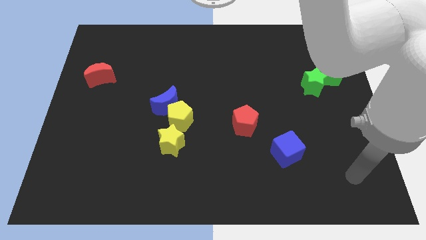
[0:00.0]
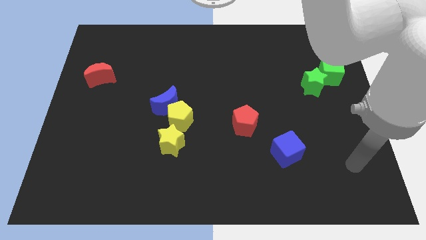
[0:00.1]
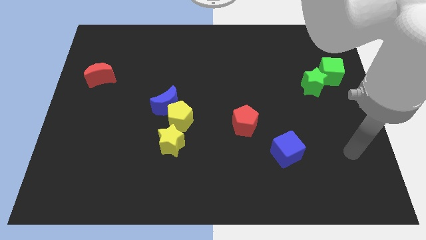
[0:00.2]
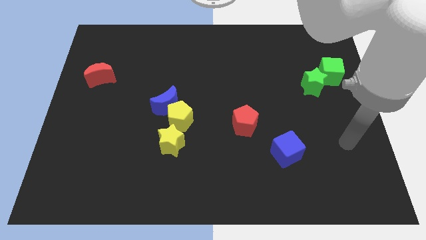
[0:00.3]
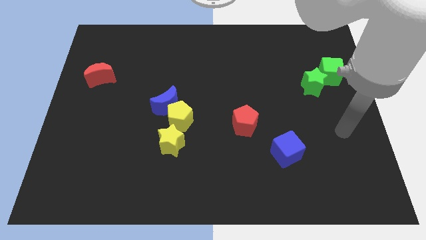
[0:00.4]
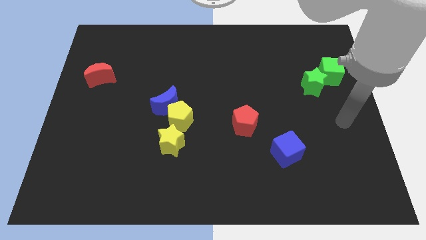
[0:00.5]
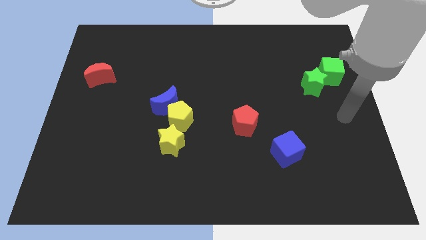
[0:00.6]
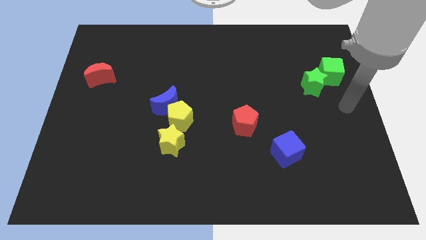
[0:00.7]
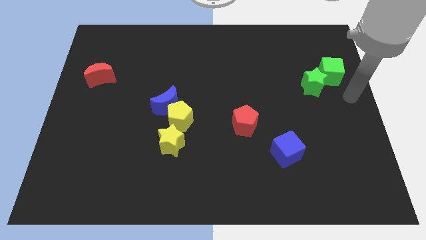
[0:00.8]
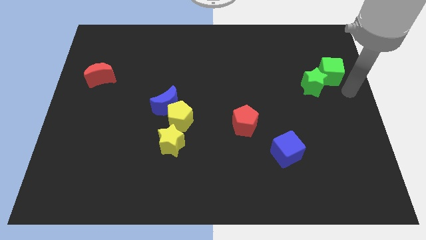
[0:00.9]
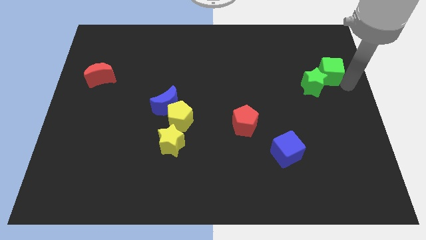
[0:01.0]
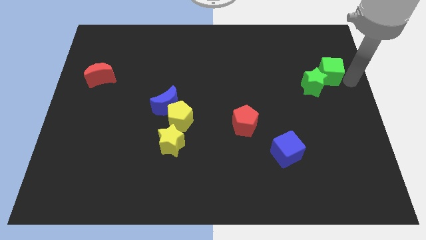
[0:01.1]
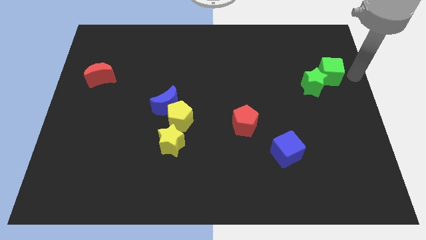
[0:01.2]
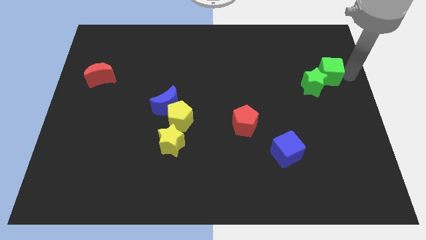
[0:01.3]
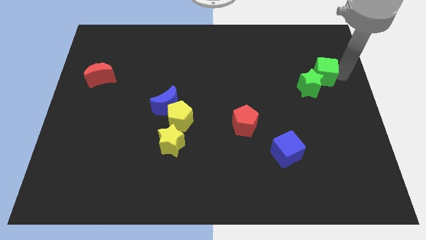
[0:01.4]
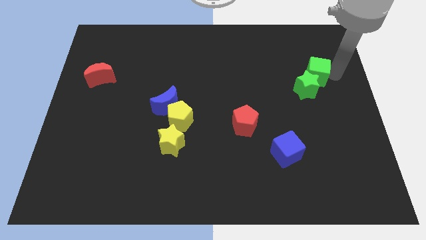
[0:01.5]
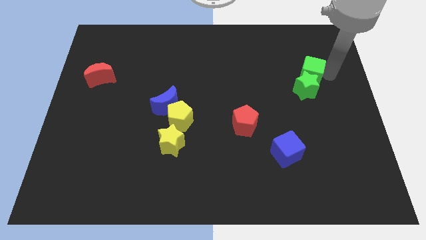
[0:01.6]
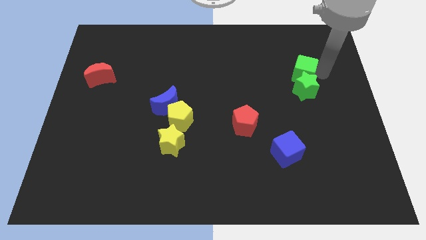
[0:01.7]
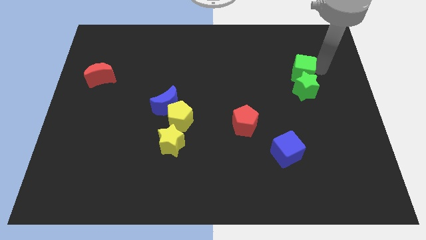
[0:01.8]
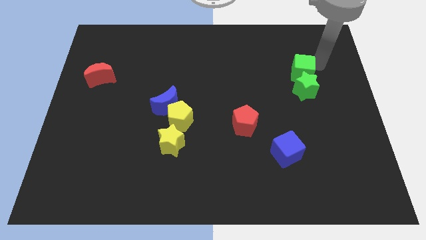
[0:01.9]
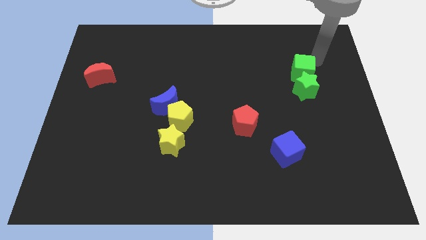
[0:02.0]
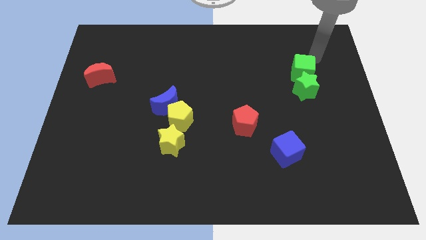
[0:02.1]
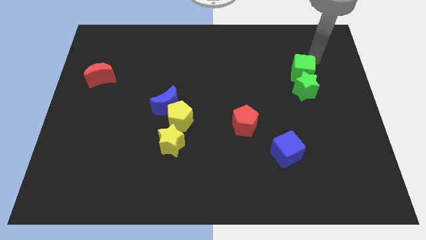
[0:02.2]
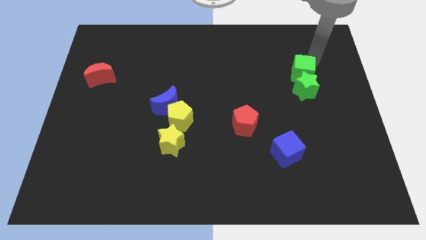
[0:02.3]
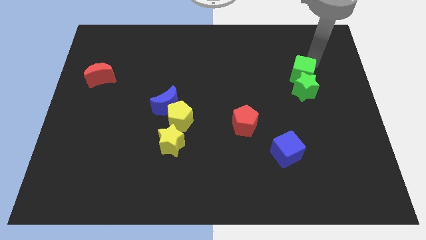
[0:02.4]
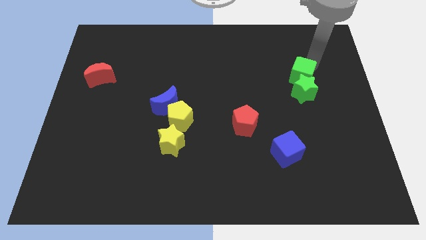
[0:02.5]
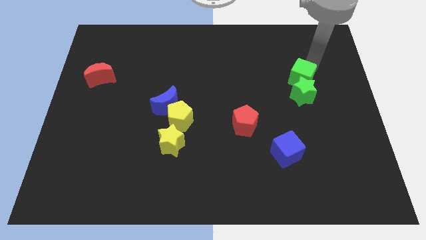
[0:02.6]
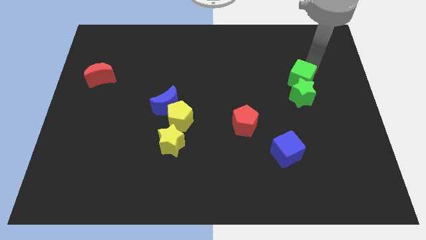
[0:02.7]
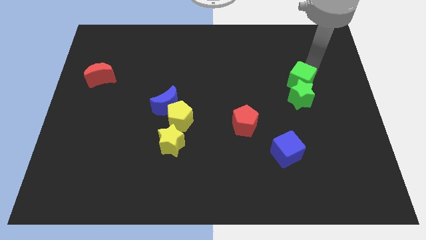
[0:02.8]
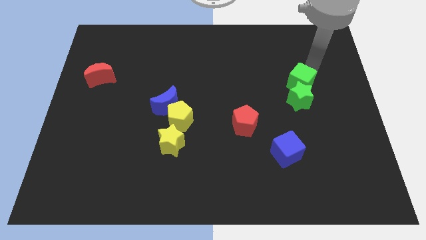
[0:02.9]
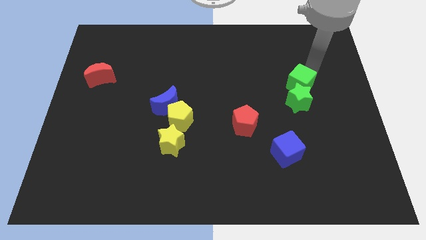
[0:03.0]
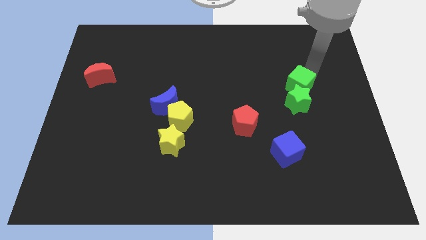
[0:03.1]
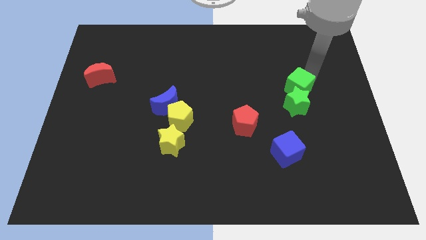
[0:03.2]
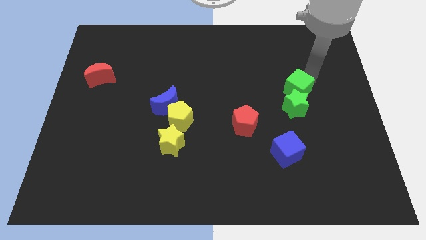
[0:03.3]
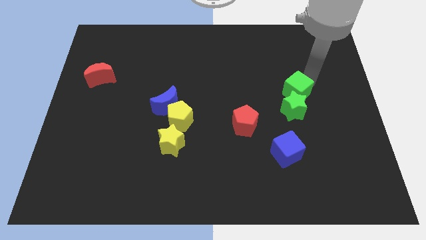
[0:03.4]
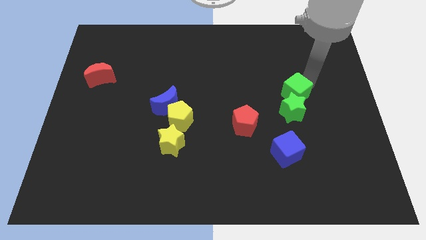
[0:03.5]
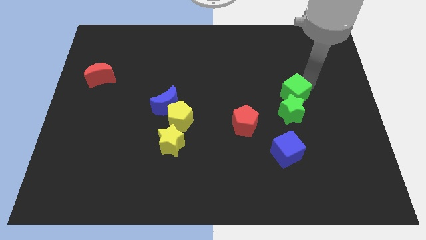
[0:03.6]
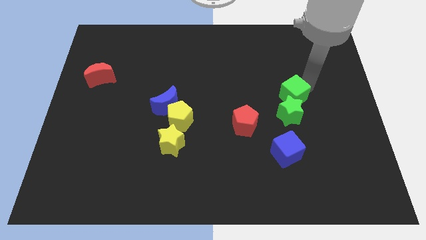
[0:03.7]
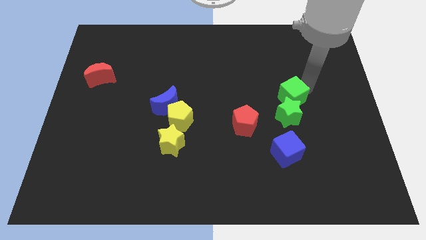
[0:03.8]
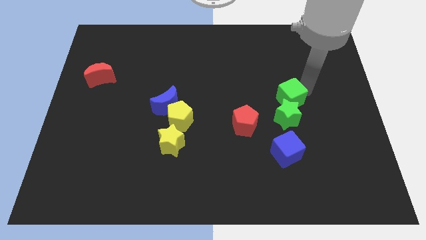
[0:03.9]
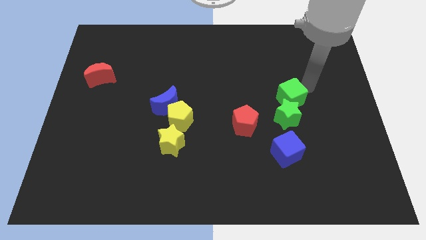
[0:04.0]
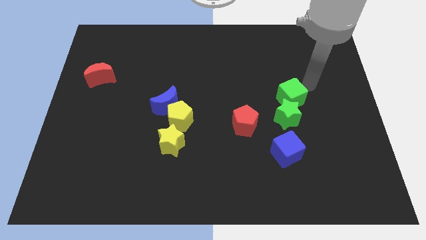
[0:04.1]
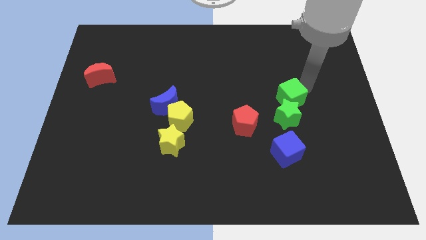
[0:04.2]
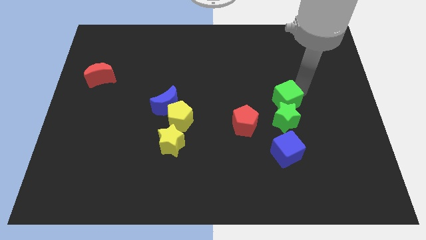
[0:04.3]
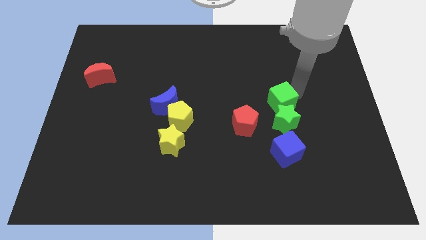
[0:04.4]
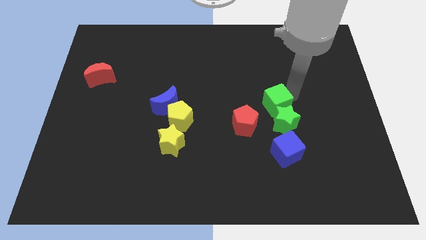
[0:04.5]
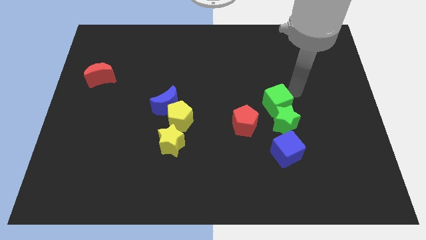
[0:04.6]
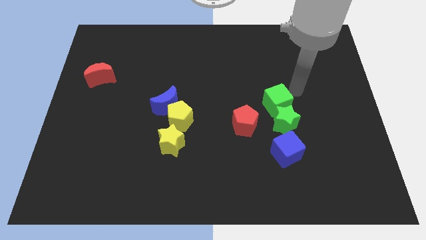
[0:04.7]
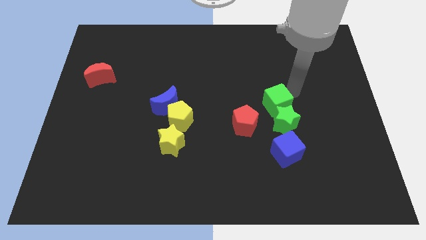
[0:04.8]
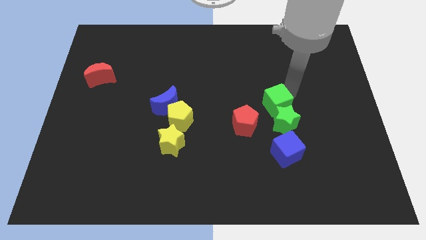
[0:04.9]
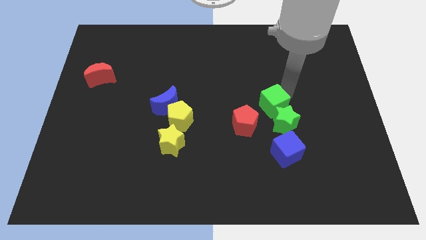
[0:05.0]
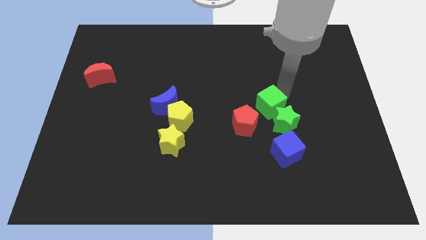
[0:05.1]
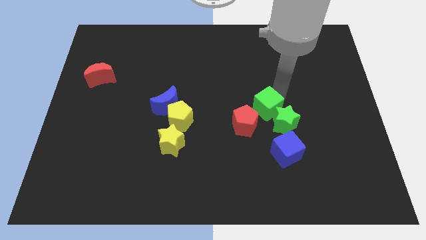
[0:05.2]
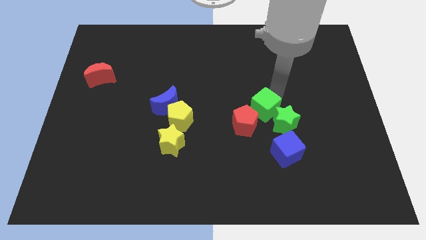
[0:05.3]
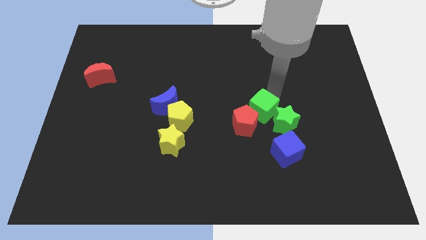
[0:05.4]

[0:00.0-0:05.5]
move the green cube towards the red pentagon

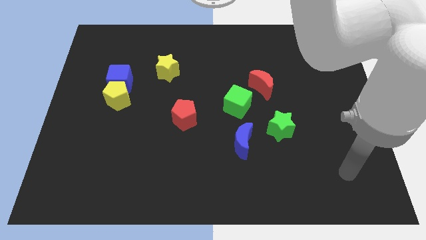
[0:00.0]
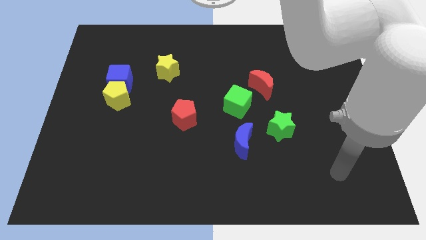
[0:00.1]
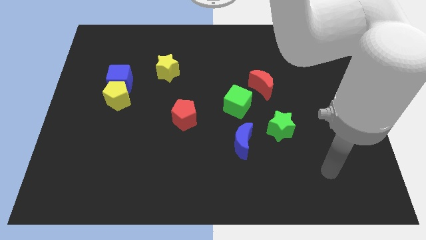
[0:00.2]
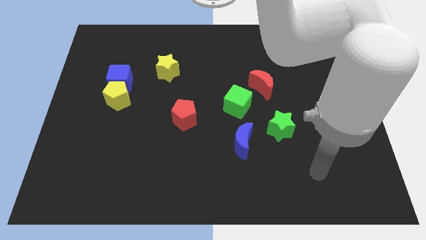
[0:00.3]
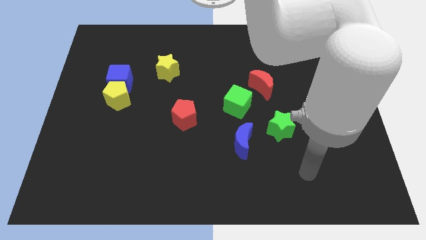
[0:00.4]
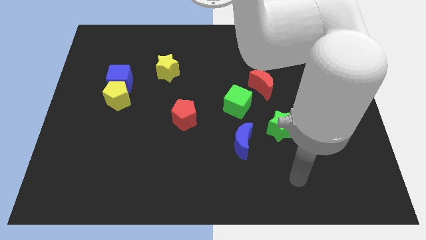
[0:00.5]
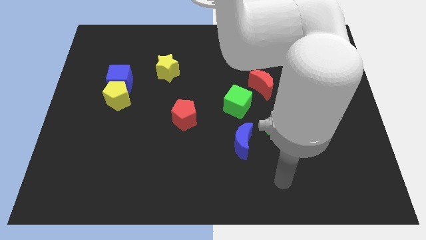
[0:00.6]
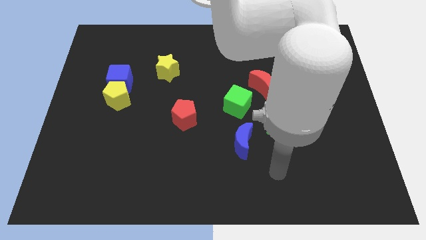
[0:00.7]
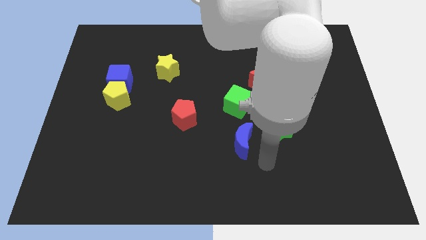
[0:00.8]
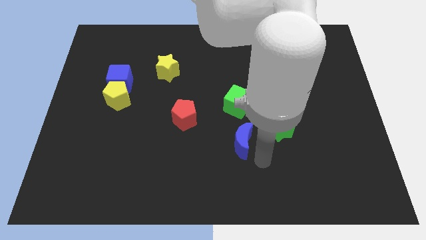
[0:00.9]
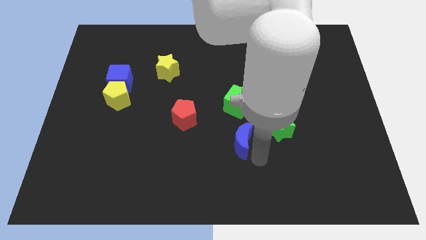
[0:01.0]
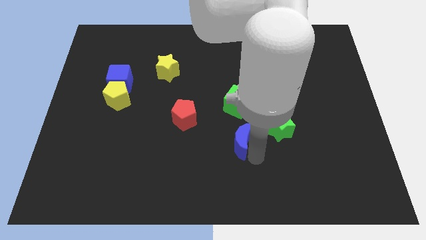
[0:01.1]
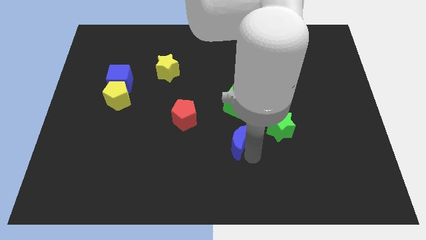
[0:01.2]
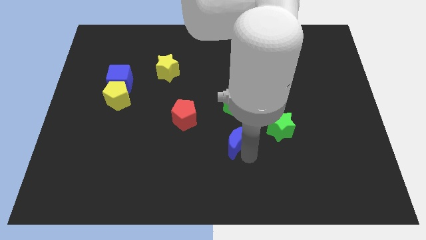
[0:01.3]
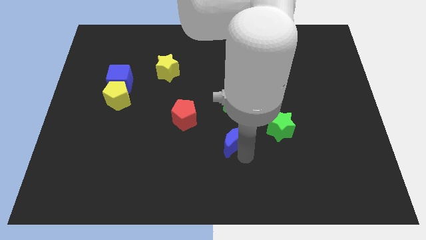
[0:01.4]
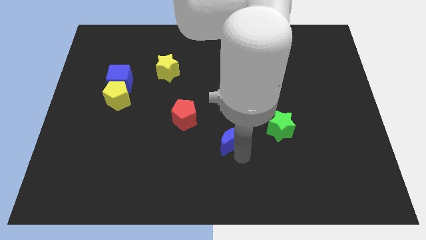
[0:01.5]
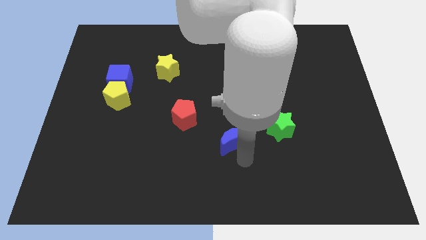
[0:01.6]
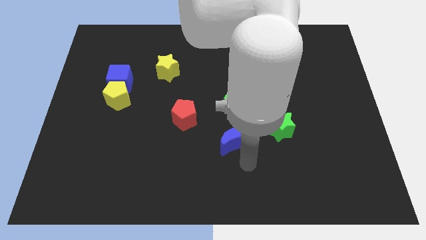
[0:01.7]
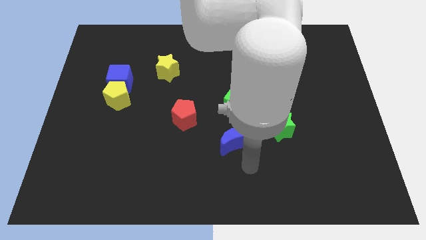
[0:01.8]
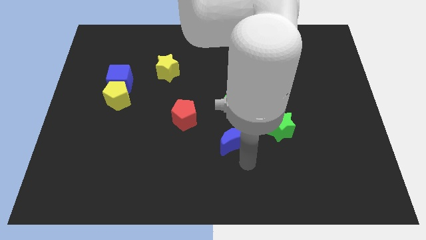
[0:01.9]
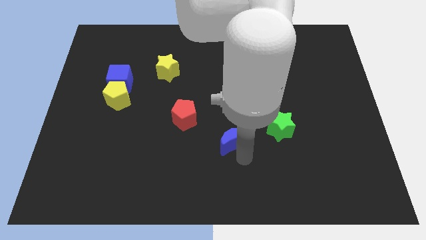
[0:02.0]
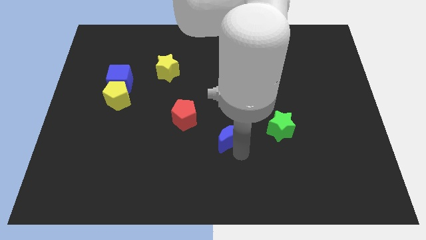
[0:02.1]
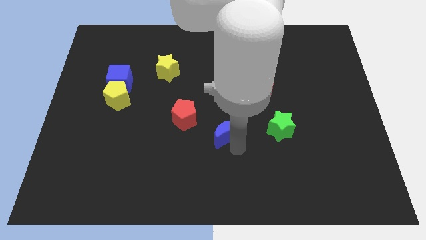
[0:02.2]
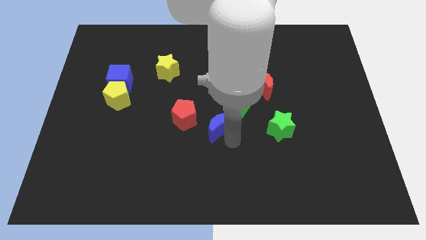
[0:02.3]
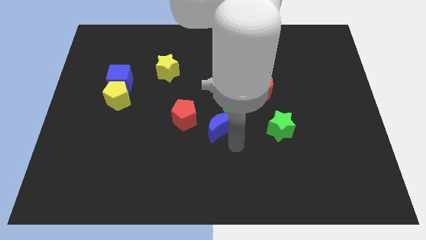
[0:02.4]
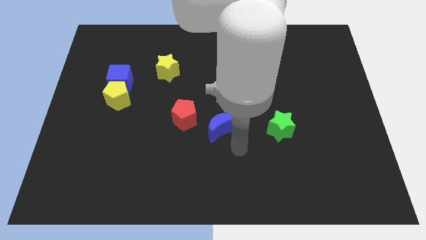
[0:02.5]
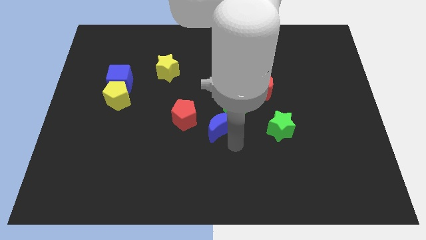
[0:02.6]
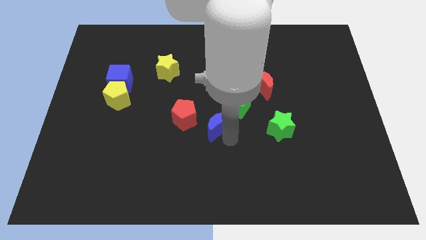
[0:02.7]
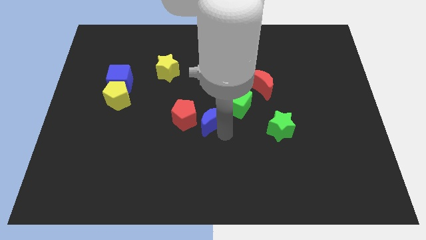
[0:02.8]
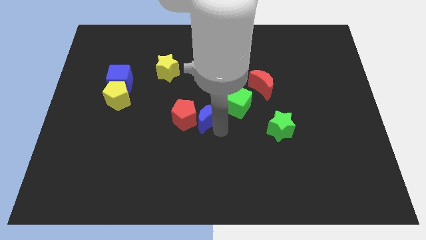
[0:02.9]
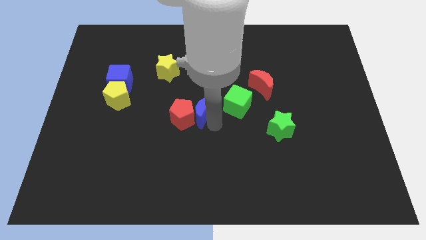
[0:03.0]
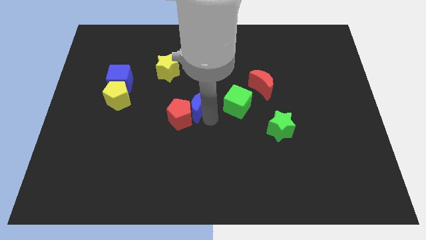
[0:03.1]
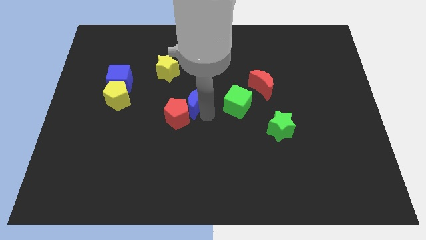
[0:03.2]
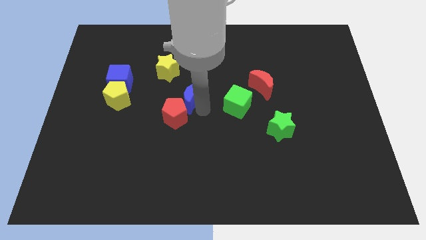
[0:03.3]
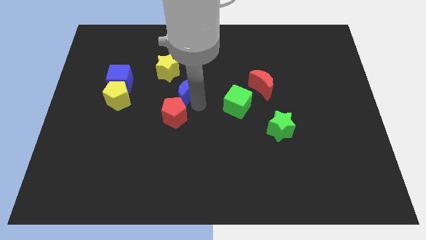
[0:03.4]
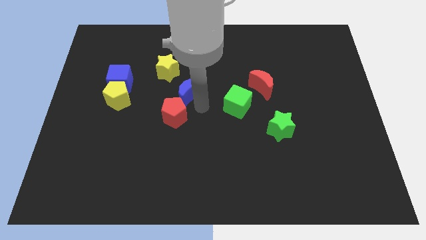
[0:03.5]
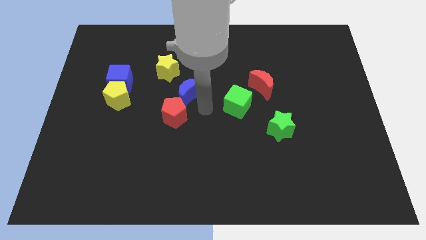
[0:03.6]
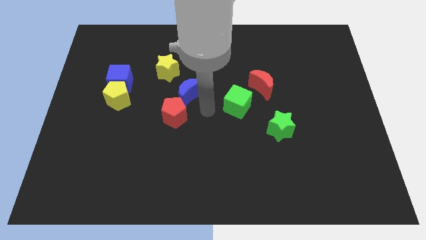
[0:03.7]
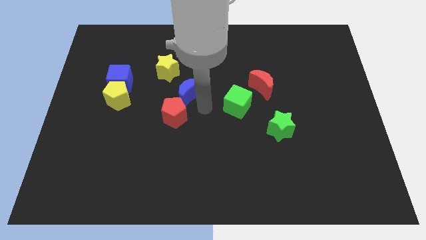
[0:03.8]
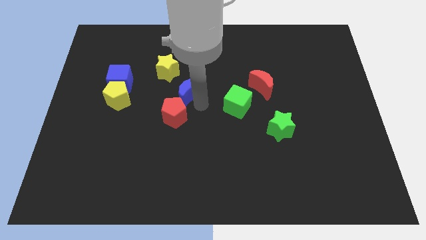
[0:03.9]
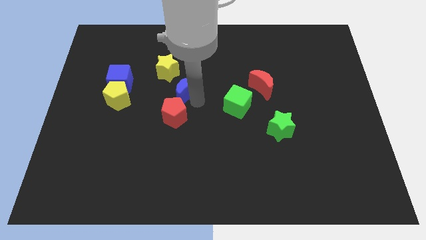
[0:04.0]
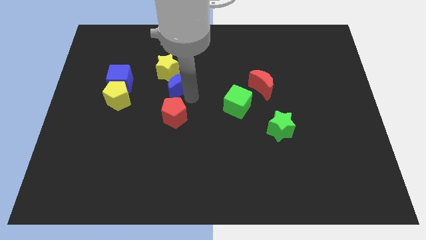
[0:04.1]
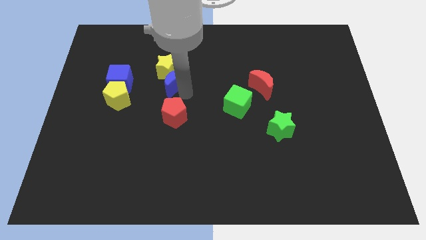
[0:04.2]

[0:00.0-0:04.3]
move the blue moon towards the yellow star
